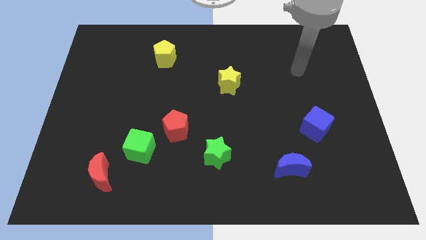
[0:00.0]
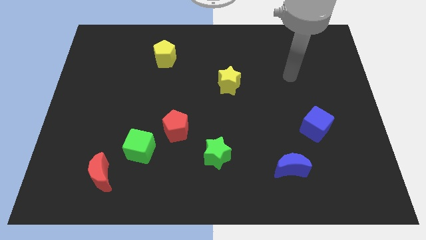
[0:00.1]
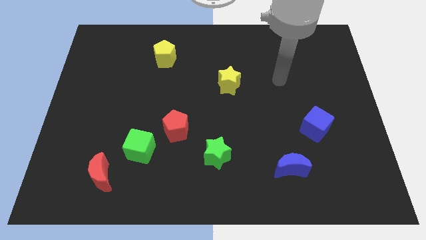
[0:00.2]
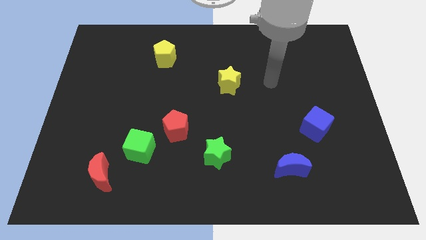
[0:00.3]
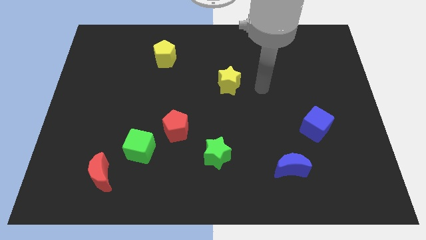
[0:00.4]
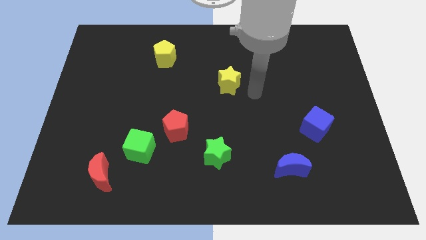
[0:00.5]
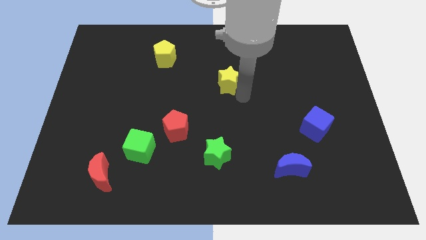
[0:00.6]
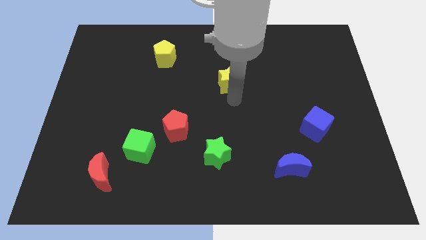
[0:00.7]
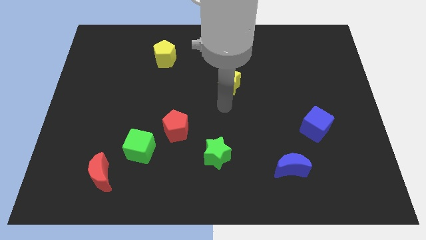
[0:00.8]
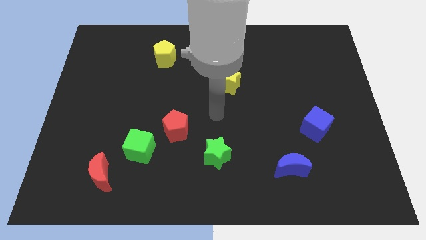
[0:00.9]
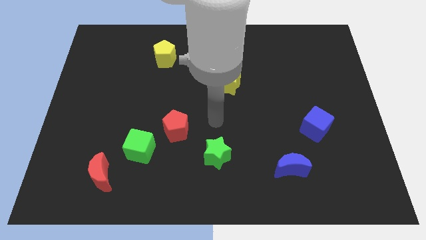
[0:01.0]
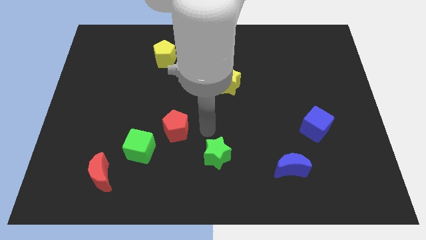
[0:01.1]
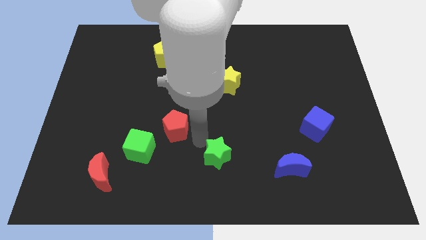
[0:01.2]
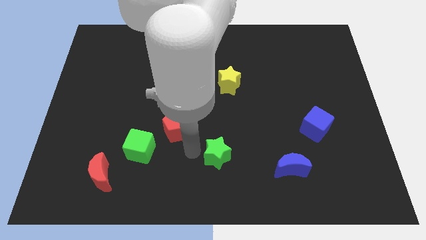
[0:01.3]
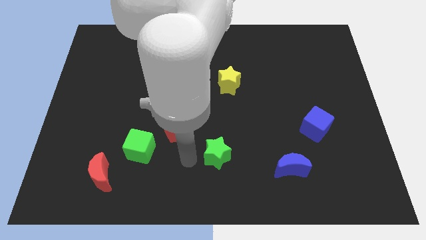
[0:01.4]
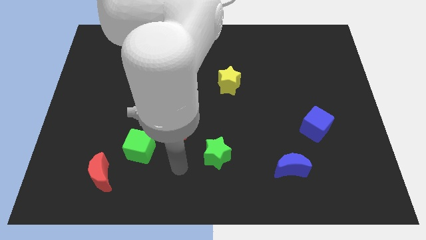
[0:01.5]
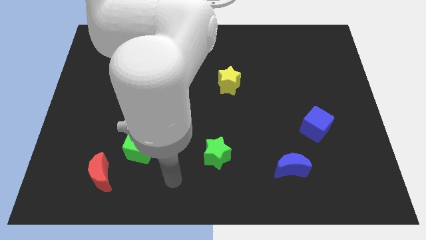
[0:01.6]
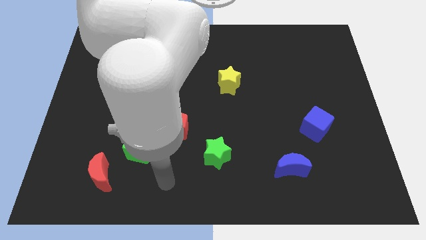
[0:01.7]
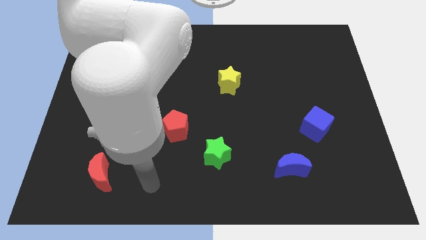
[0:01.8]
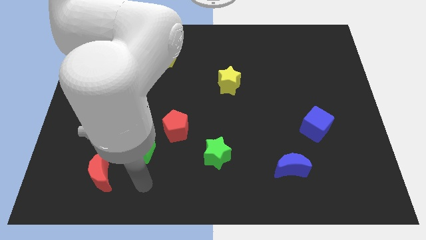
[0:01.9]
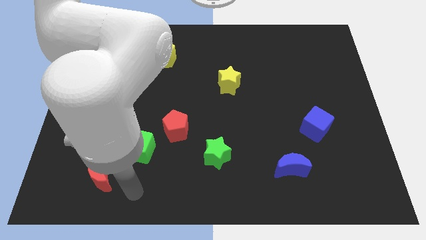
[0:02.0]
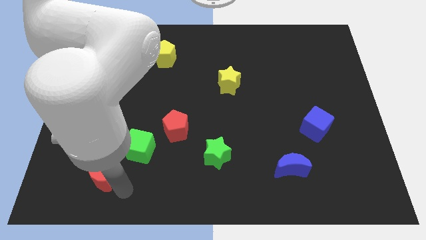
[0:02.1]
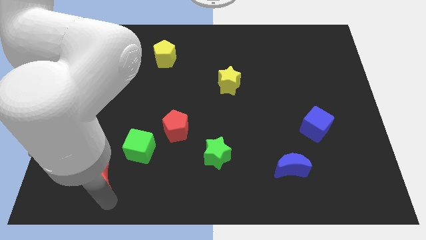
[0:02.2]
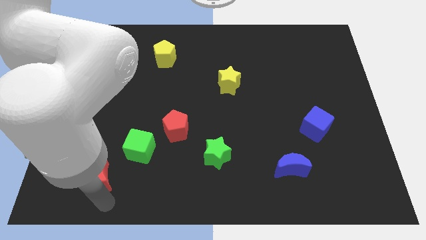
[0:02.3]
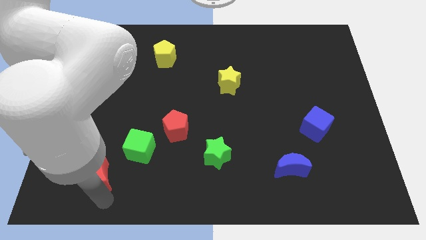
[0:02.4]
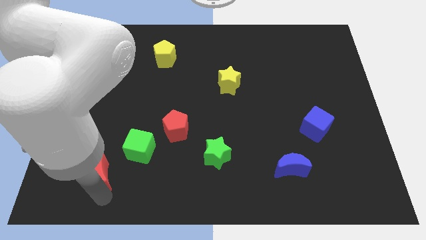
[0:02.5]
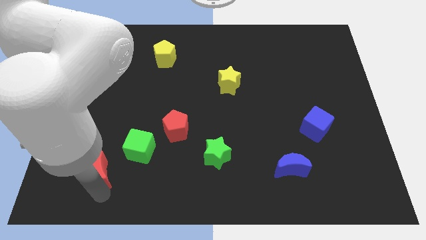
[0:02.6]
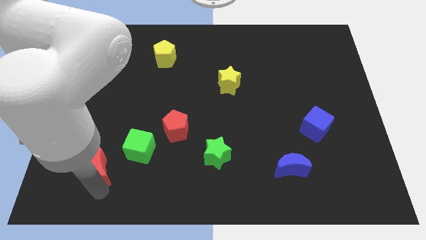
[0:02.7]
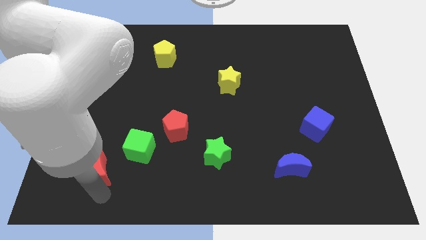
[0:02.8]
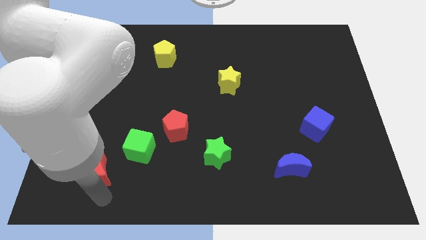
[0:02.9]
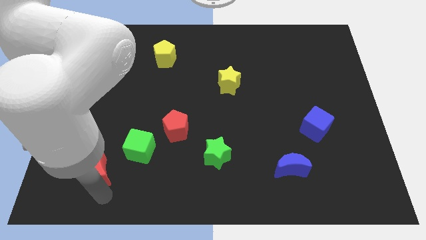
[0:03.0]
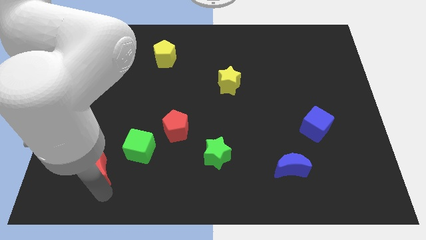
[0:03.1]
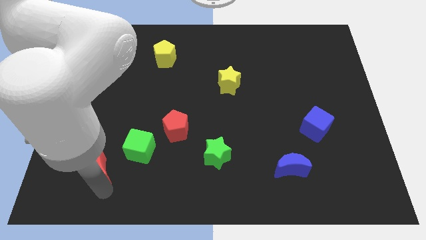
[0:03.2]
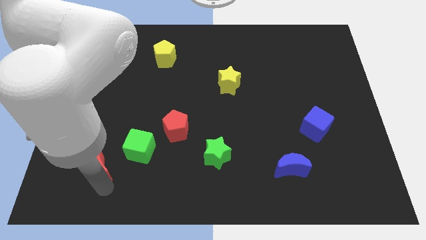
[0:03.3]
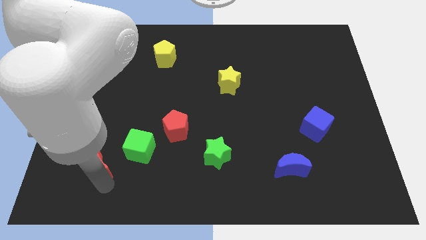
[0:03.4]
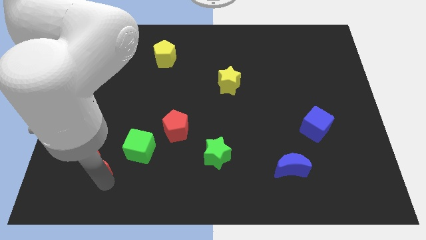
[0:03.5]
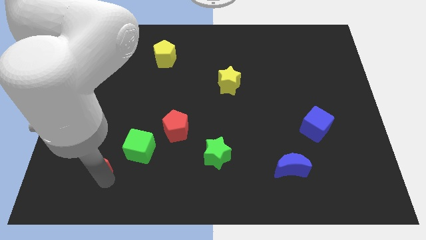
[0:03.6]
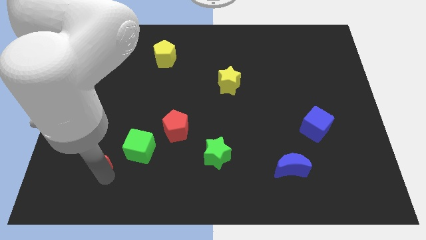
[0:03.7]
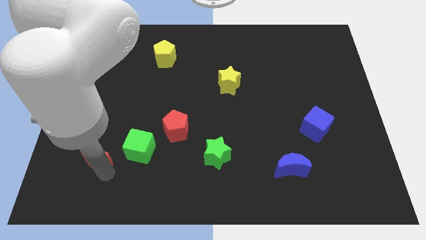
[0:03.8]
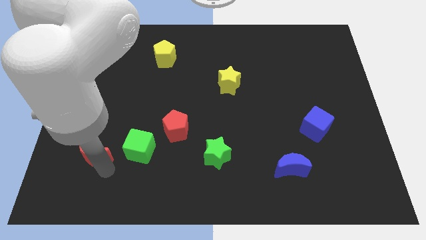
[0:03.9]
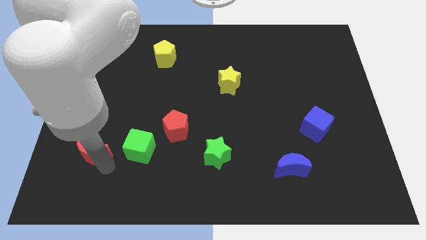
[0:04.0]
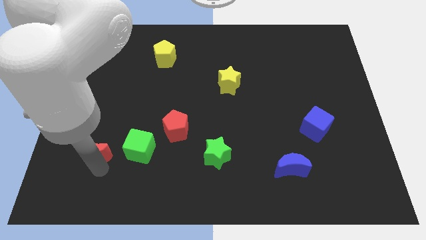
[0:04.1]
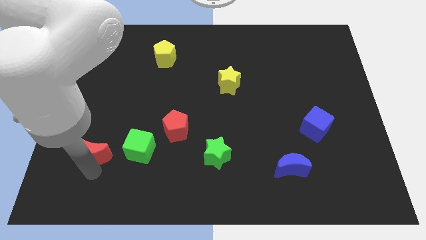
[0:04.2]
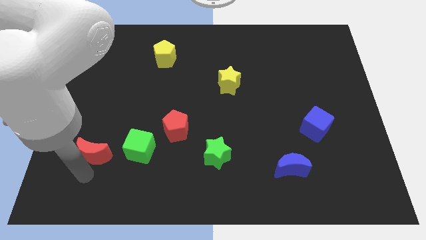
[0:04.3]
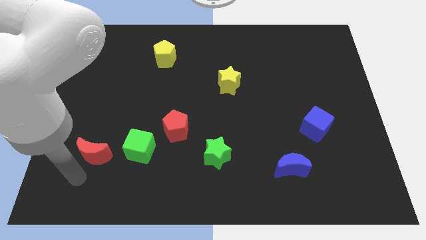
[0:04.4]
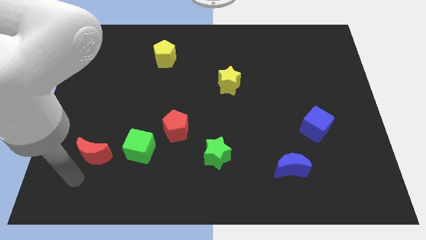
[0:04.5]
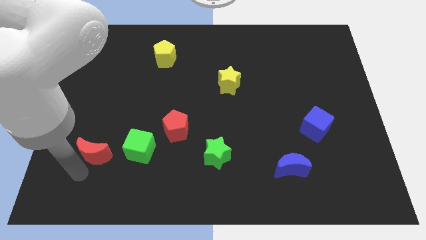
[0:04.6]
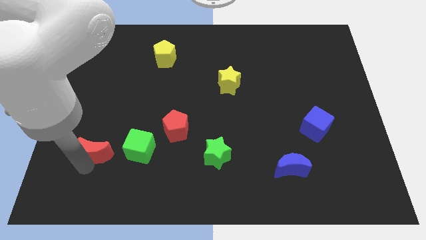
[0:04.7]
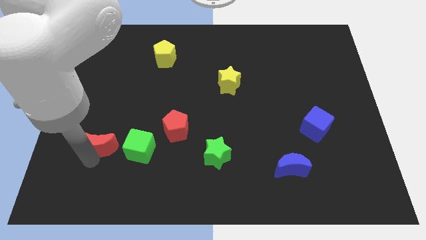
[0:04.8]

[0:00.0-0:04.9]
slightly push the red moon upwards

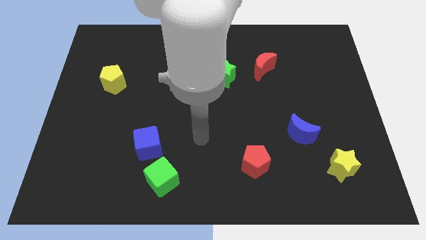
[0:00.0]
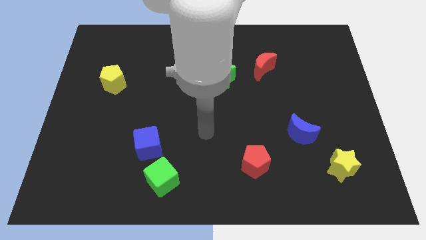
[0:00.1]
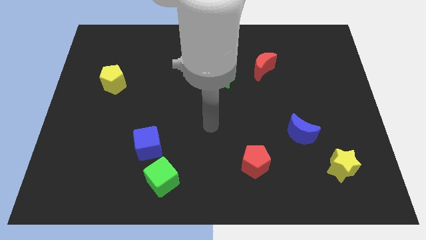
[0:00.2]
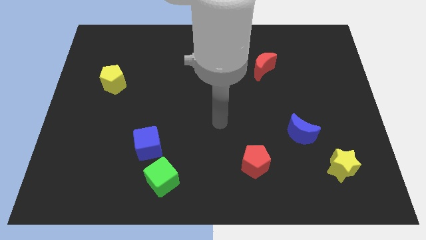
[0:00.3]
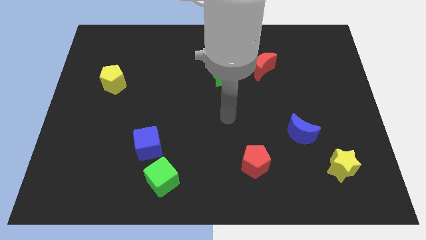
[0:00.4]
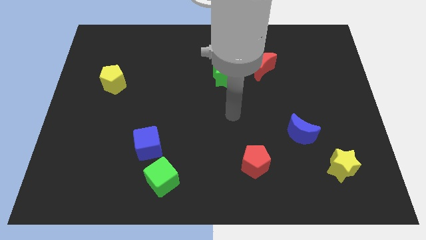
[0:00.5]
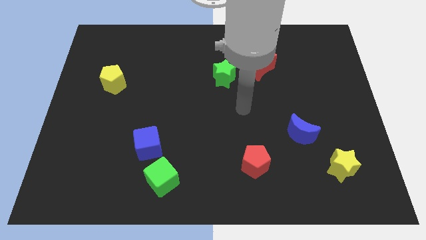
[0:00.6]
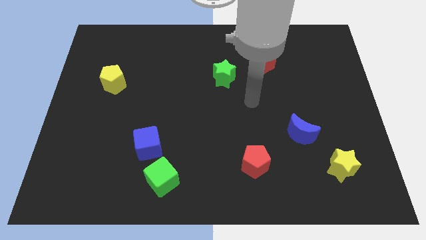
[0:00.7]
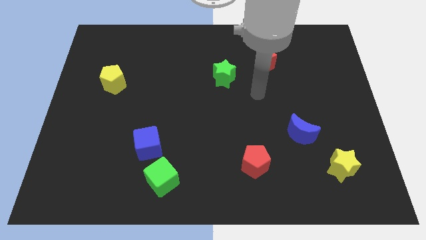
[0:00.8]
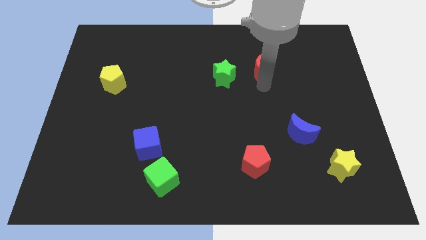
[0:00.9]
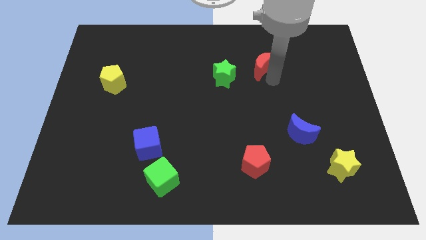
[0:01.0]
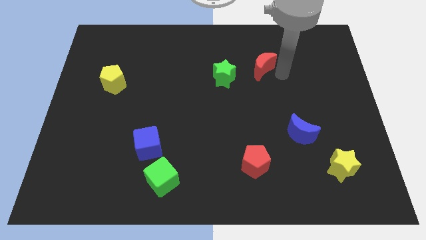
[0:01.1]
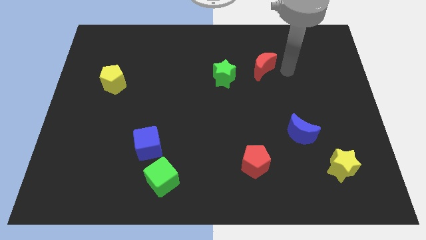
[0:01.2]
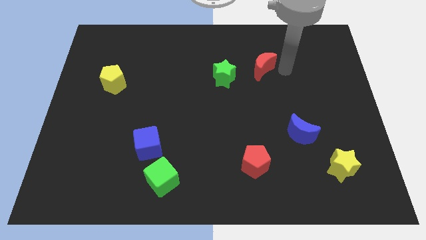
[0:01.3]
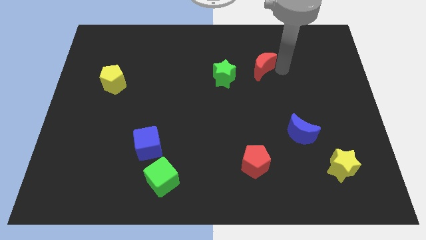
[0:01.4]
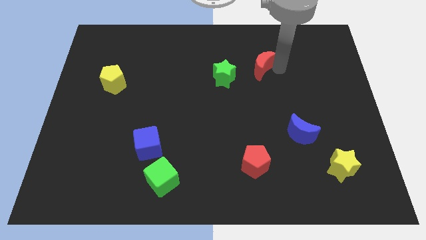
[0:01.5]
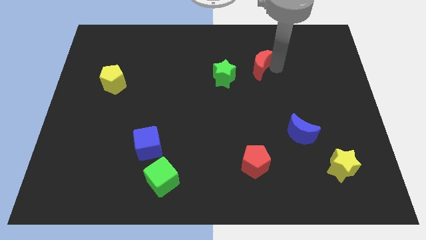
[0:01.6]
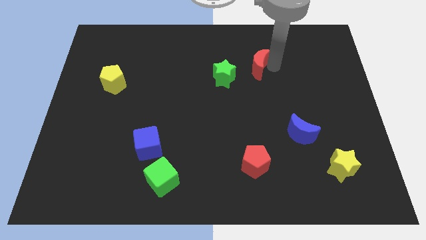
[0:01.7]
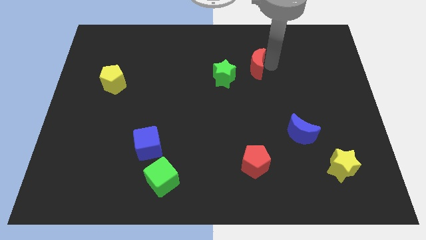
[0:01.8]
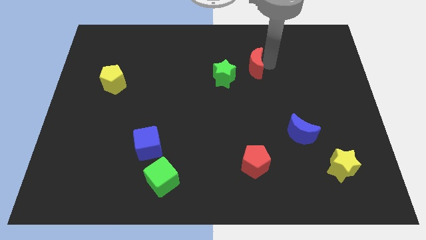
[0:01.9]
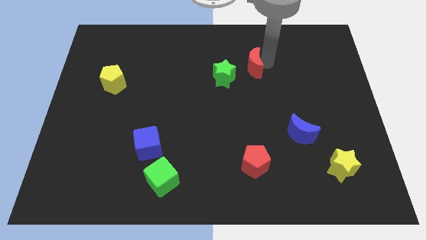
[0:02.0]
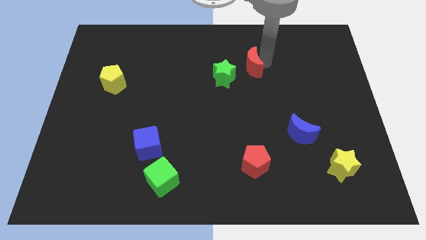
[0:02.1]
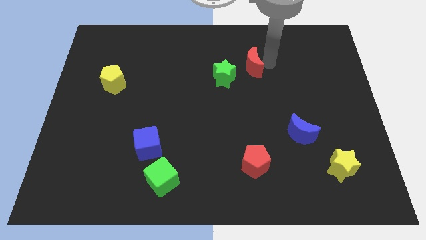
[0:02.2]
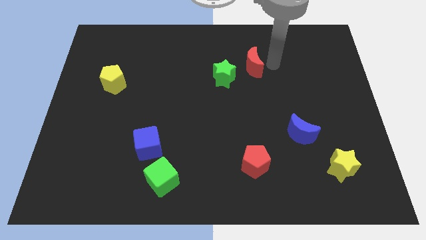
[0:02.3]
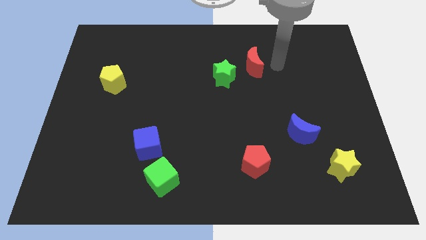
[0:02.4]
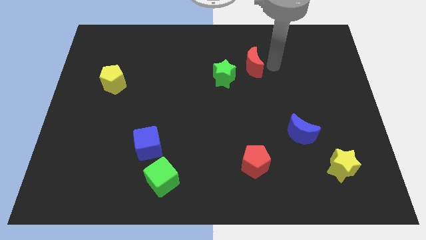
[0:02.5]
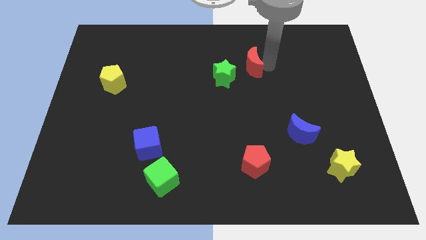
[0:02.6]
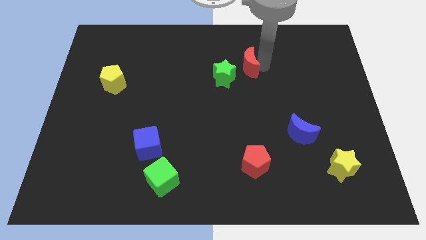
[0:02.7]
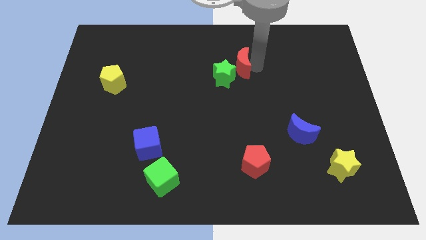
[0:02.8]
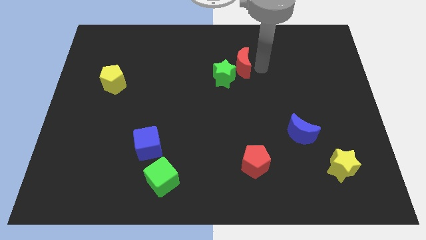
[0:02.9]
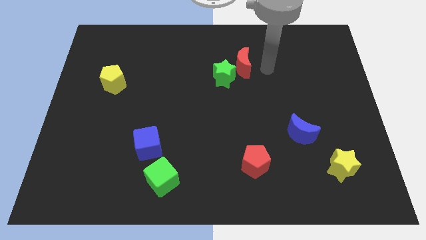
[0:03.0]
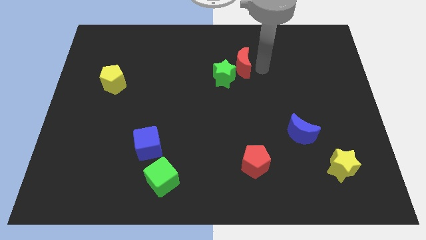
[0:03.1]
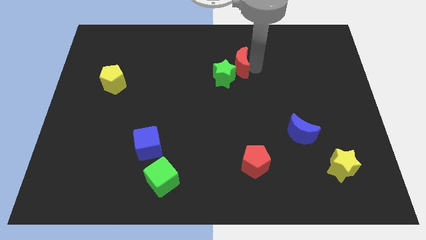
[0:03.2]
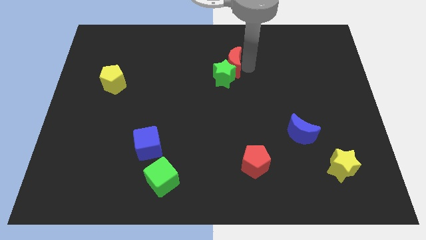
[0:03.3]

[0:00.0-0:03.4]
slightly slide the red moon to the left
